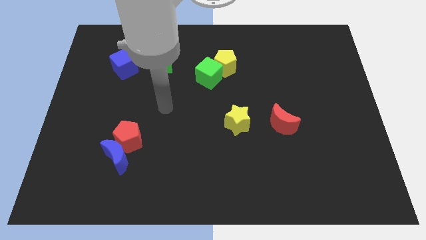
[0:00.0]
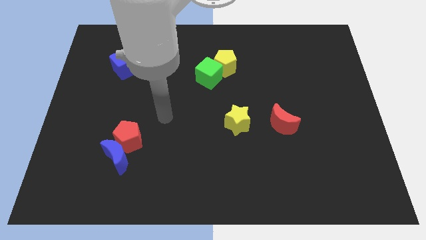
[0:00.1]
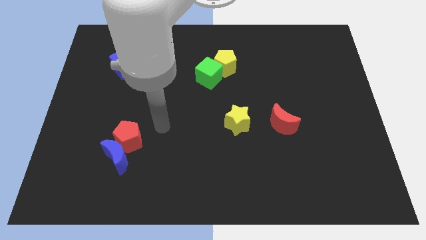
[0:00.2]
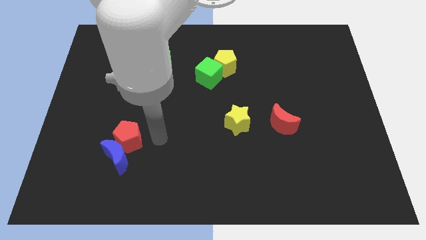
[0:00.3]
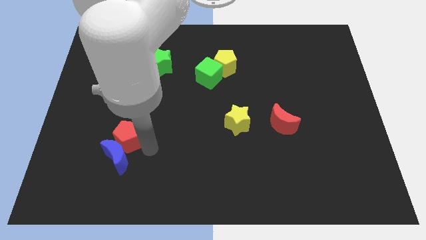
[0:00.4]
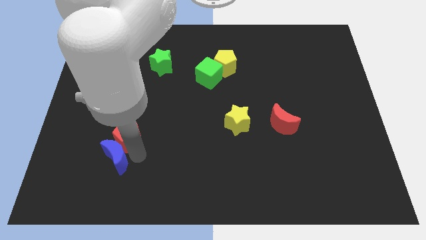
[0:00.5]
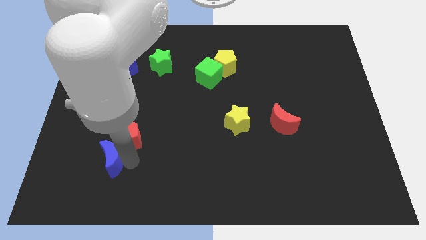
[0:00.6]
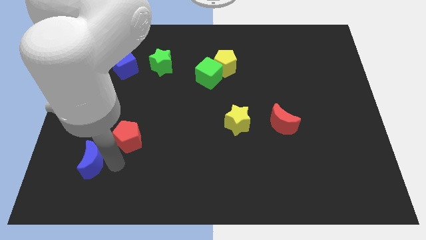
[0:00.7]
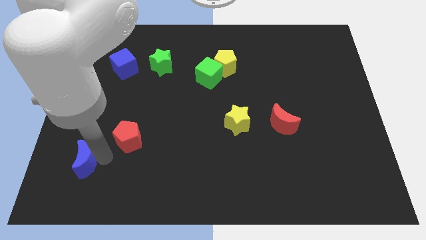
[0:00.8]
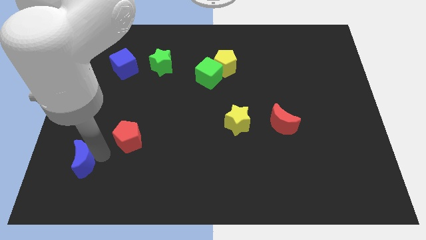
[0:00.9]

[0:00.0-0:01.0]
pull the red pentagon apart from the blue moon

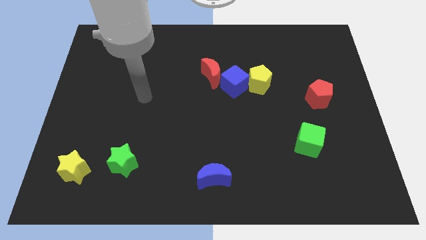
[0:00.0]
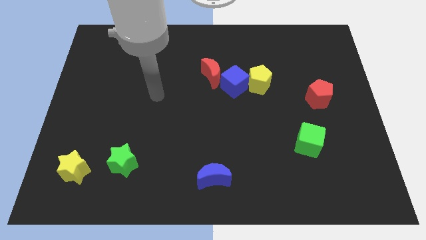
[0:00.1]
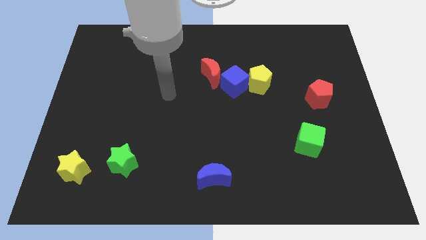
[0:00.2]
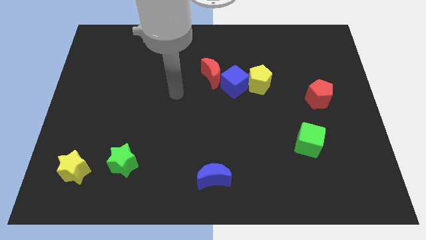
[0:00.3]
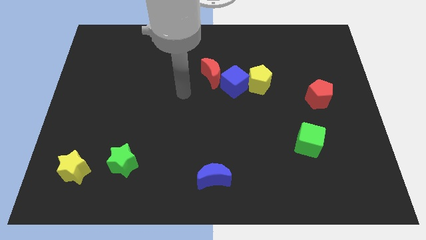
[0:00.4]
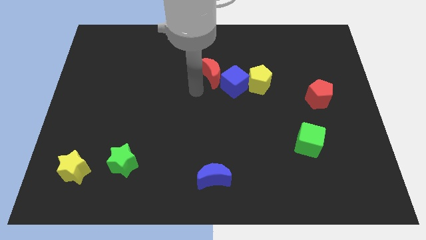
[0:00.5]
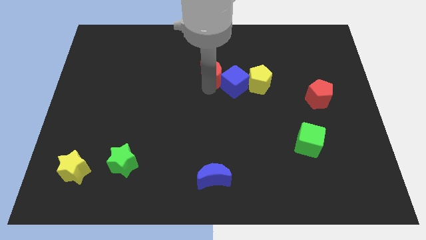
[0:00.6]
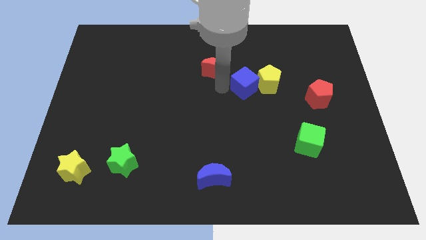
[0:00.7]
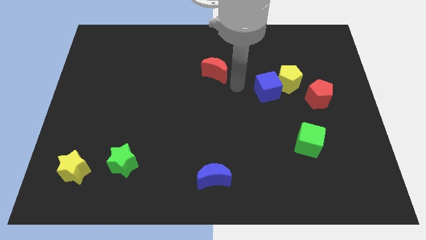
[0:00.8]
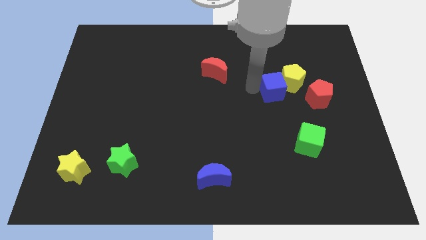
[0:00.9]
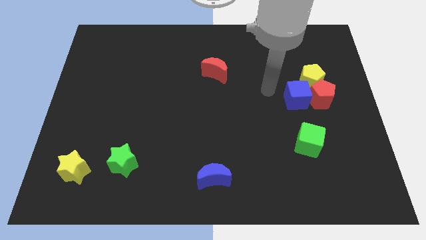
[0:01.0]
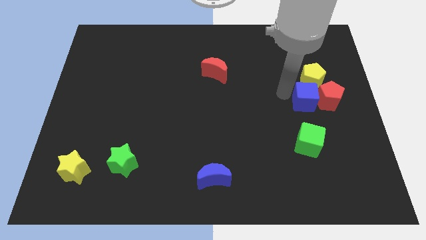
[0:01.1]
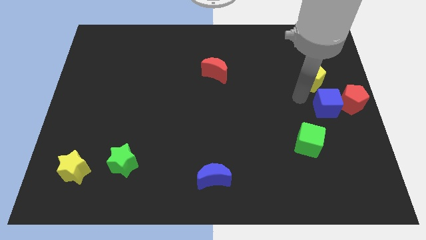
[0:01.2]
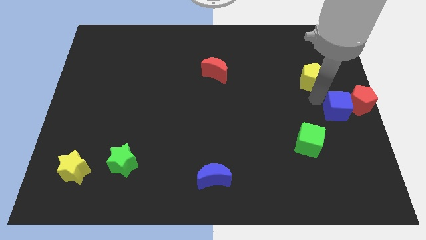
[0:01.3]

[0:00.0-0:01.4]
separate the yellow pentagon from the blue cube

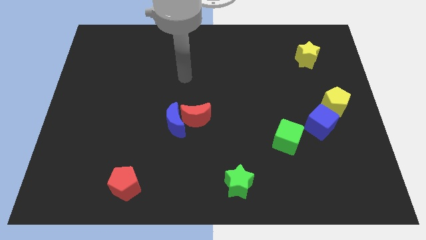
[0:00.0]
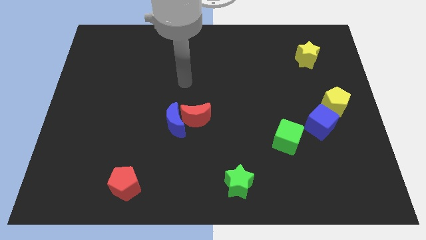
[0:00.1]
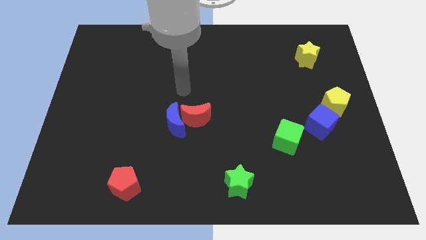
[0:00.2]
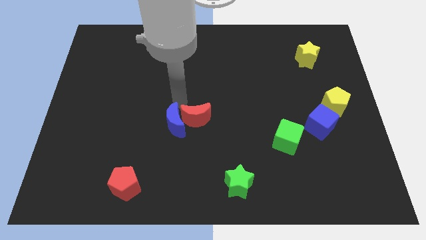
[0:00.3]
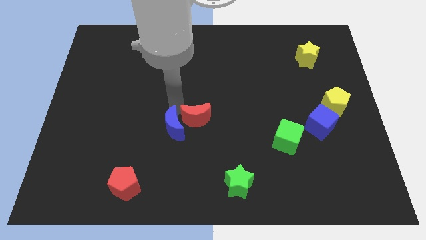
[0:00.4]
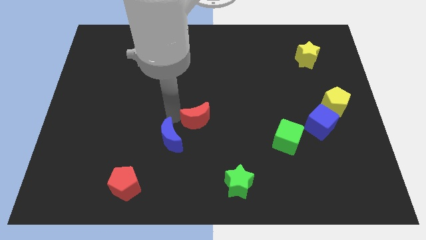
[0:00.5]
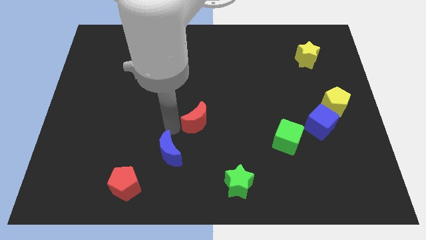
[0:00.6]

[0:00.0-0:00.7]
separate the red moon from the blue moon

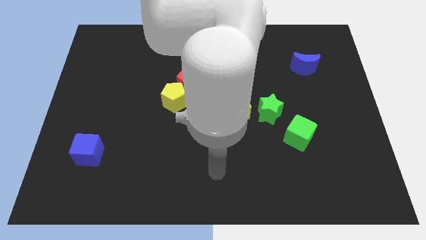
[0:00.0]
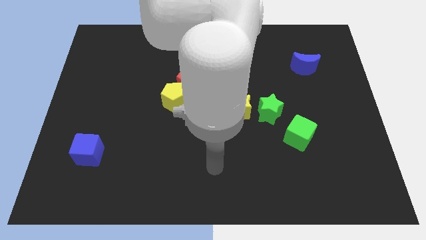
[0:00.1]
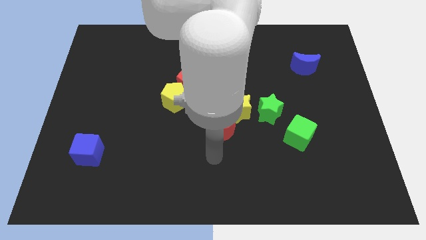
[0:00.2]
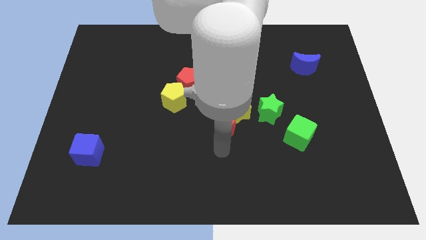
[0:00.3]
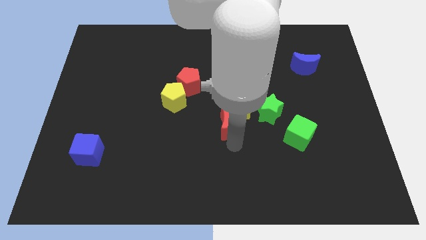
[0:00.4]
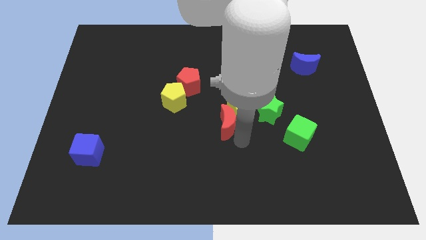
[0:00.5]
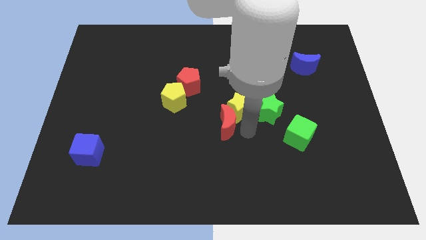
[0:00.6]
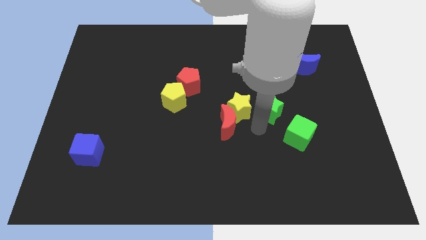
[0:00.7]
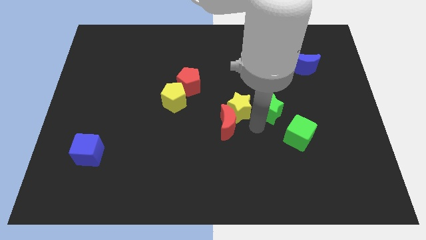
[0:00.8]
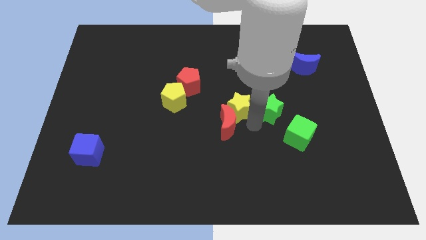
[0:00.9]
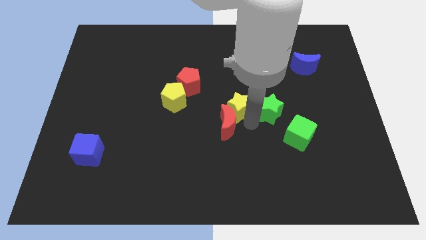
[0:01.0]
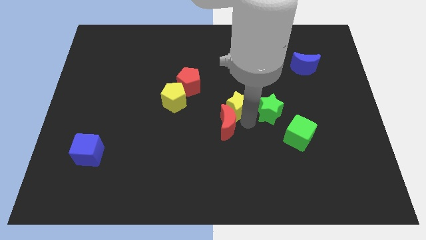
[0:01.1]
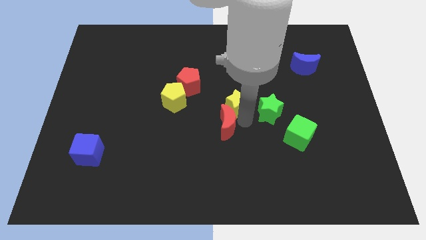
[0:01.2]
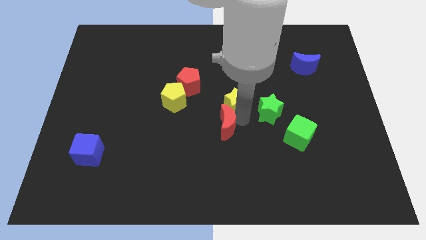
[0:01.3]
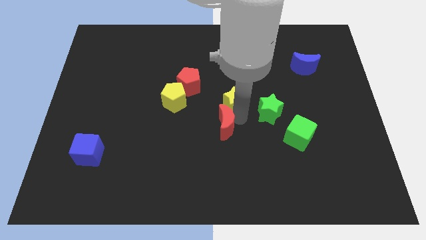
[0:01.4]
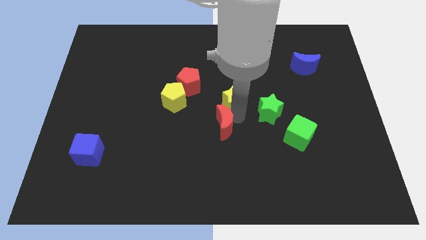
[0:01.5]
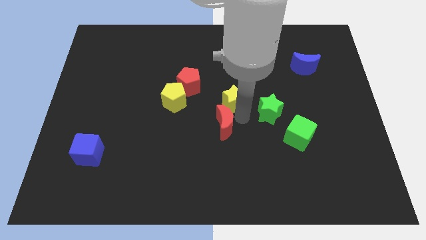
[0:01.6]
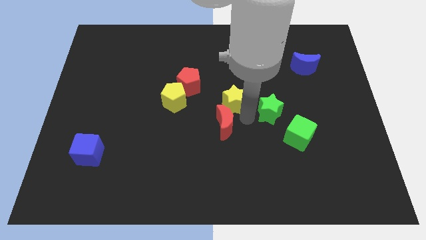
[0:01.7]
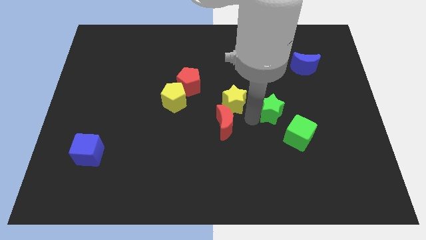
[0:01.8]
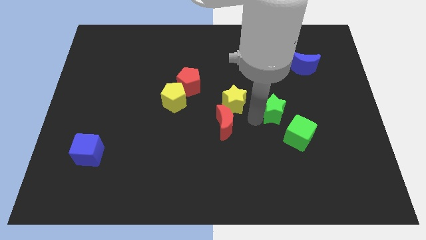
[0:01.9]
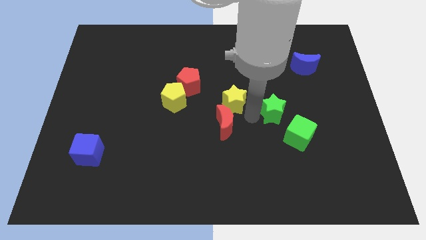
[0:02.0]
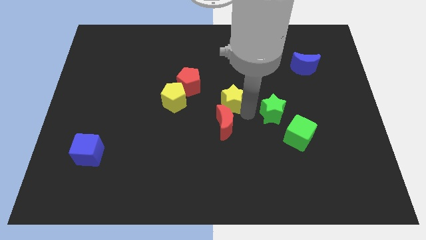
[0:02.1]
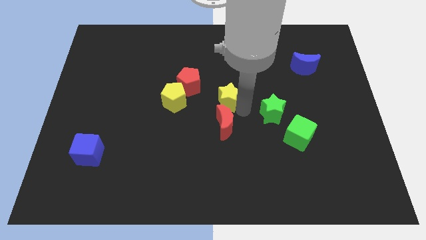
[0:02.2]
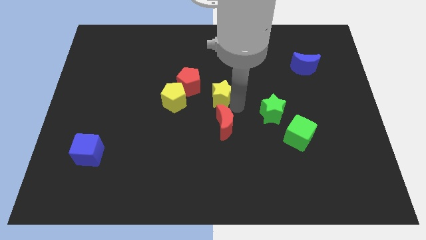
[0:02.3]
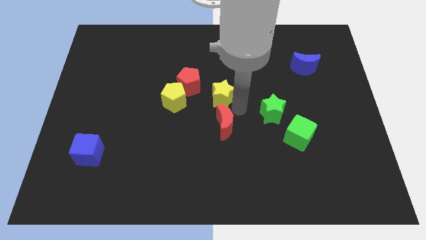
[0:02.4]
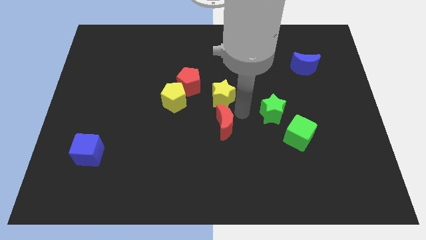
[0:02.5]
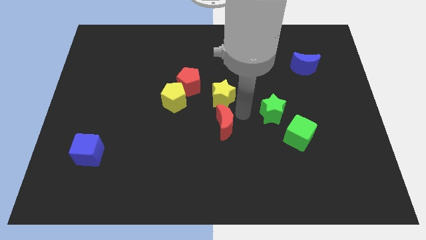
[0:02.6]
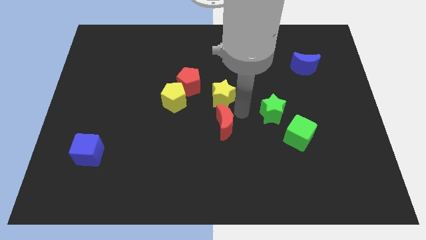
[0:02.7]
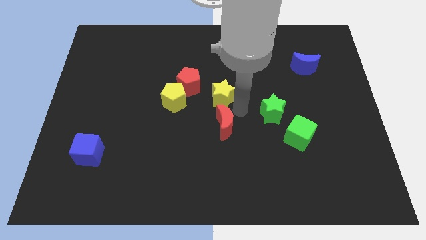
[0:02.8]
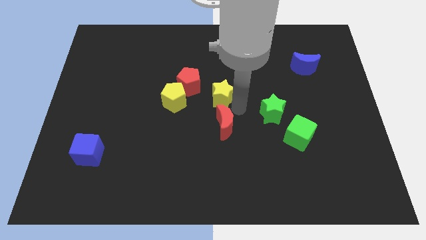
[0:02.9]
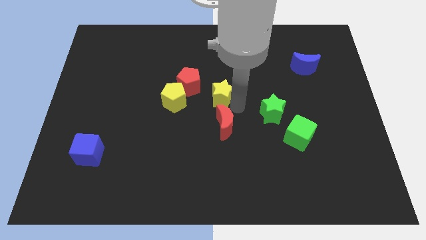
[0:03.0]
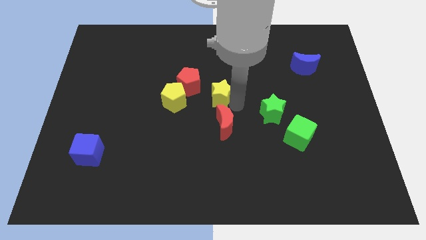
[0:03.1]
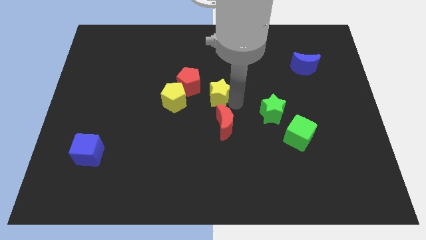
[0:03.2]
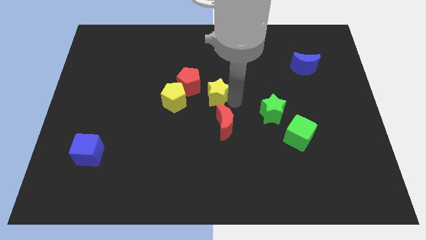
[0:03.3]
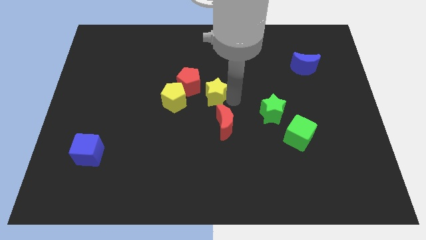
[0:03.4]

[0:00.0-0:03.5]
pull the yellow star apart from the red moon and green star

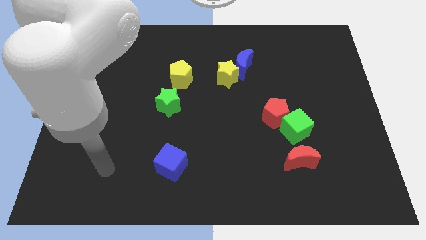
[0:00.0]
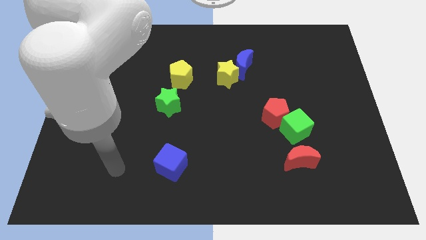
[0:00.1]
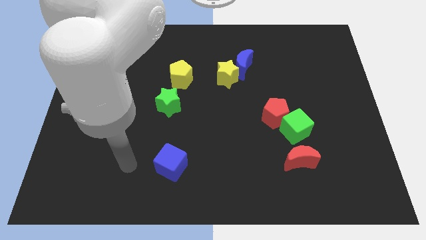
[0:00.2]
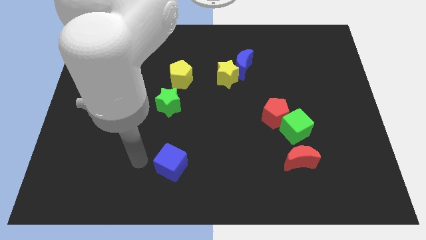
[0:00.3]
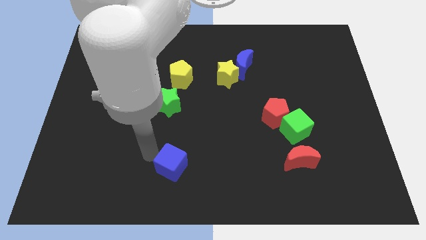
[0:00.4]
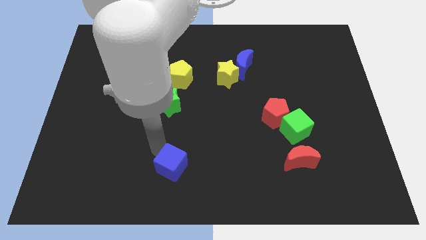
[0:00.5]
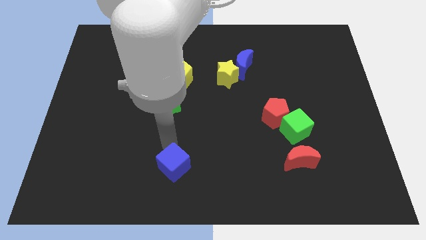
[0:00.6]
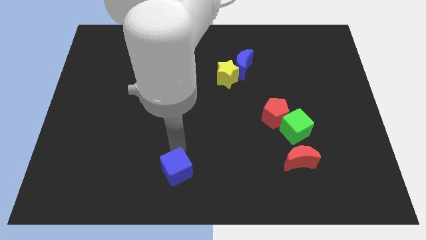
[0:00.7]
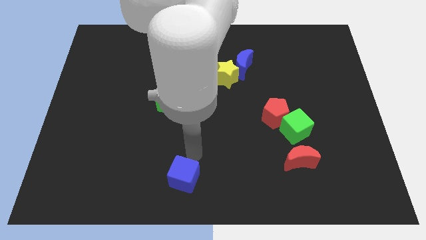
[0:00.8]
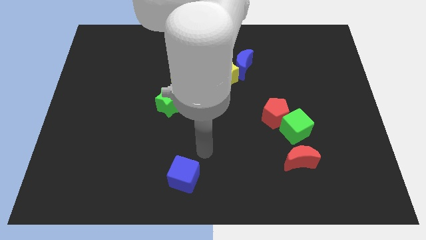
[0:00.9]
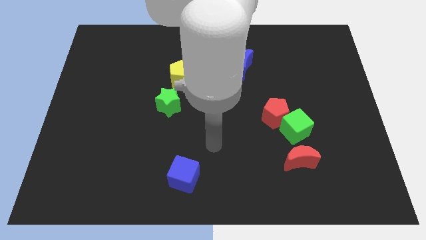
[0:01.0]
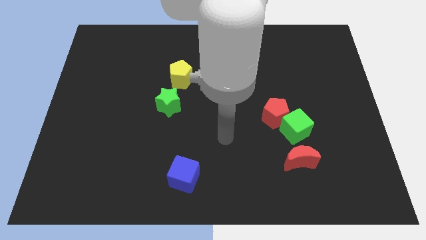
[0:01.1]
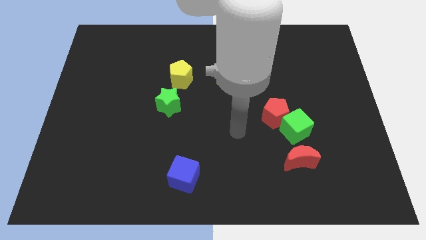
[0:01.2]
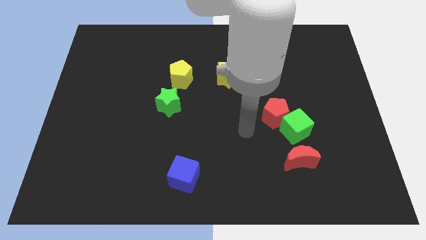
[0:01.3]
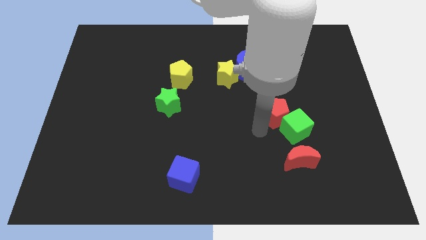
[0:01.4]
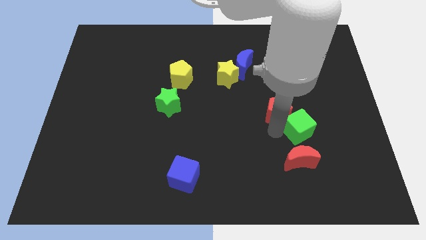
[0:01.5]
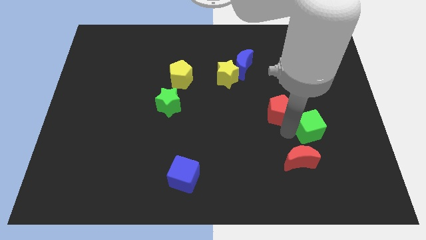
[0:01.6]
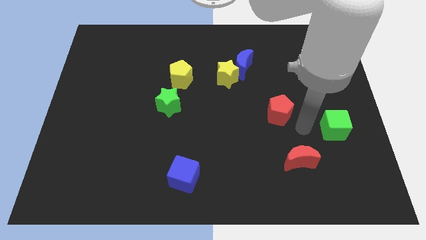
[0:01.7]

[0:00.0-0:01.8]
move the red pentagon away from the green cube

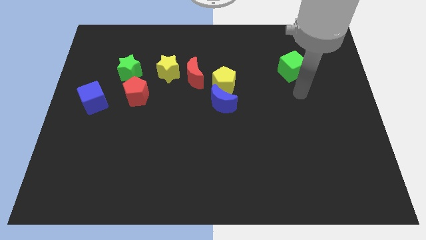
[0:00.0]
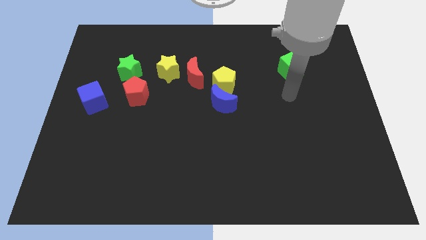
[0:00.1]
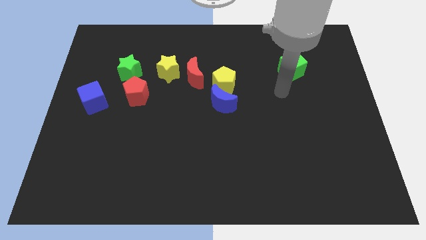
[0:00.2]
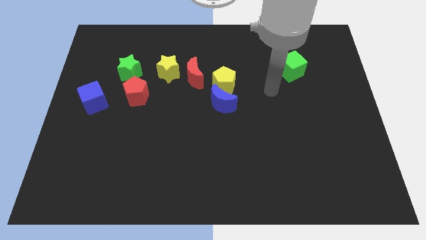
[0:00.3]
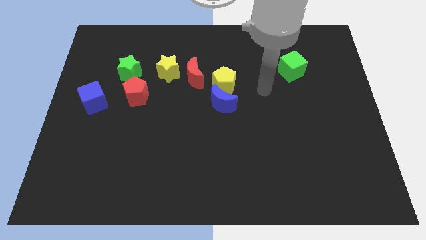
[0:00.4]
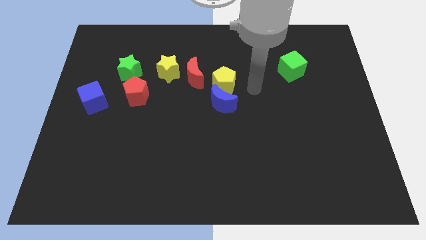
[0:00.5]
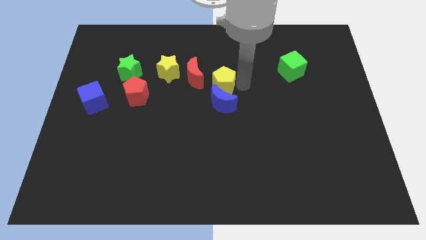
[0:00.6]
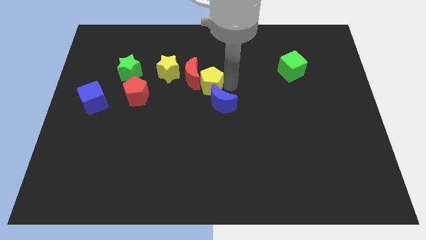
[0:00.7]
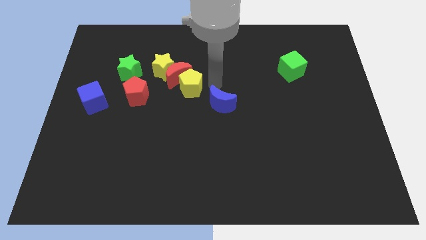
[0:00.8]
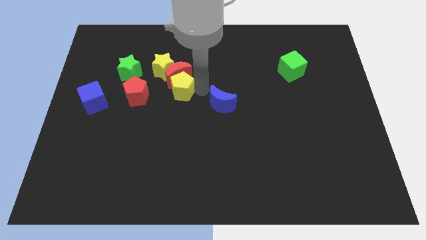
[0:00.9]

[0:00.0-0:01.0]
move the blue moon away from the yellow pentagon
